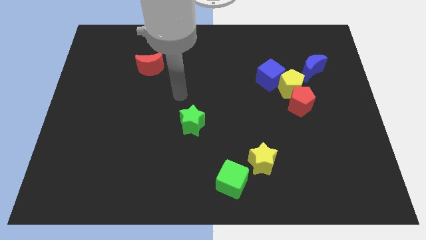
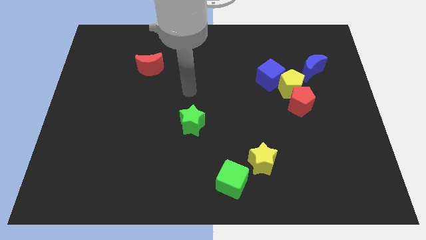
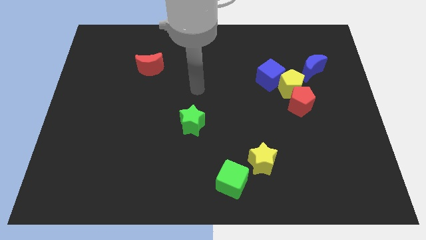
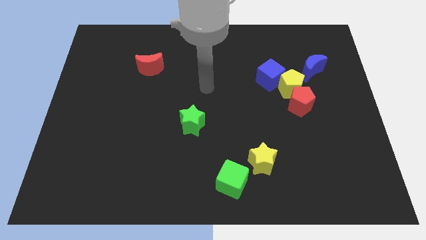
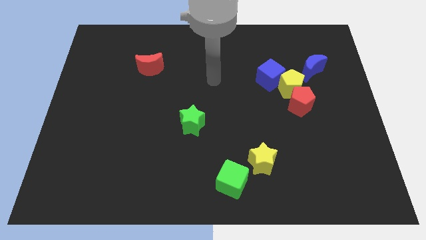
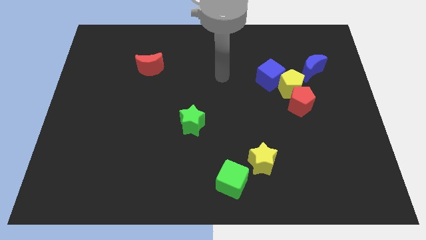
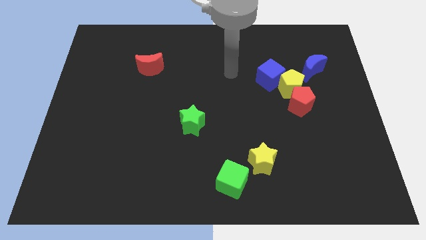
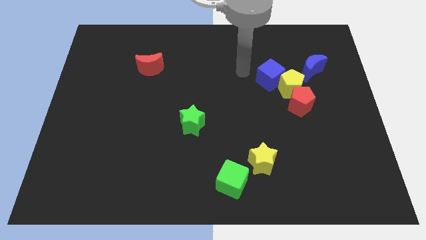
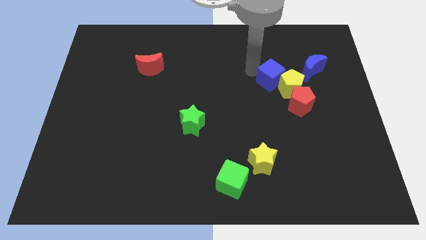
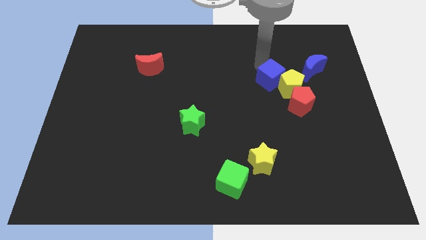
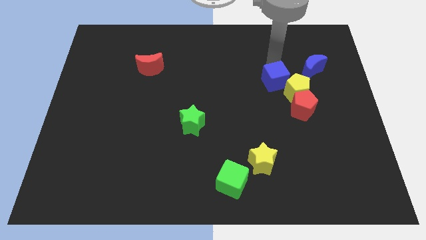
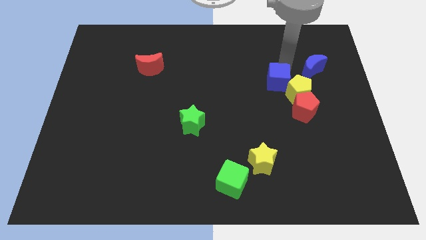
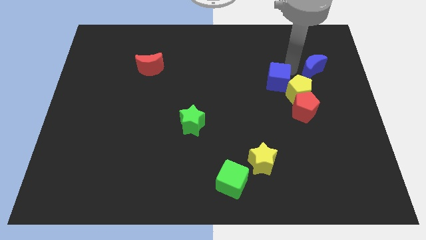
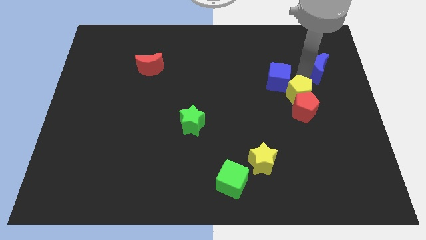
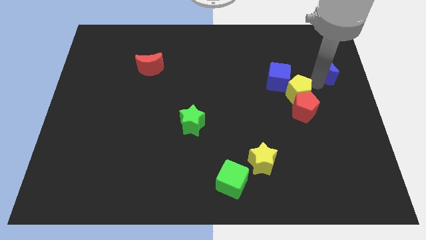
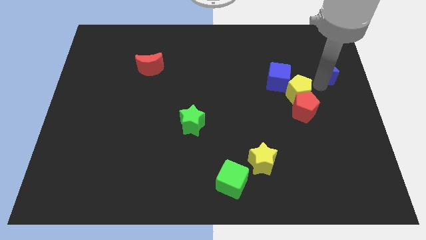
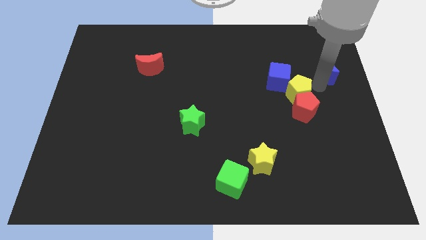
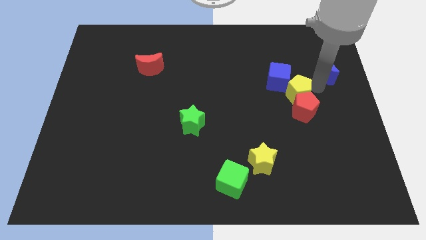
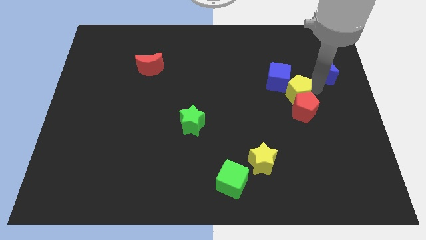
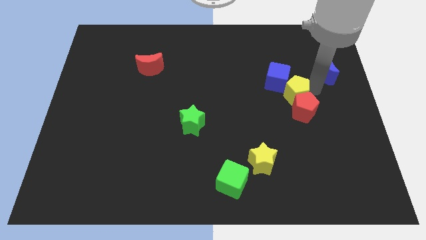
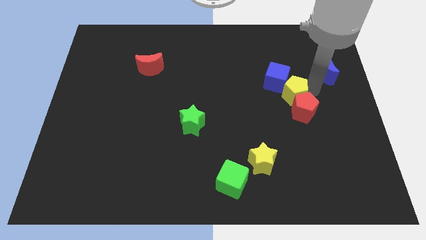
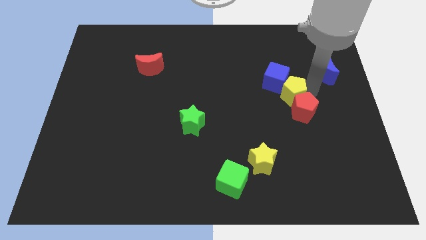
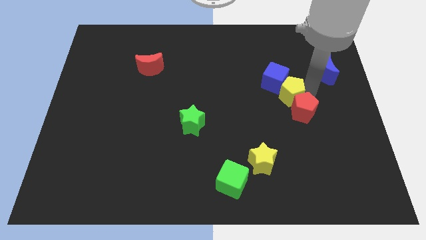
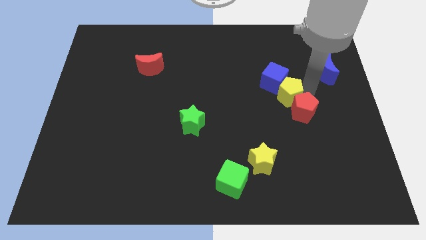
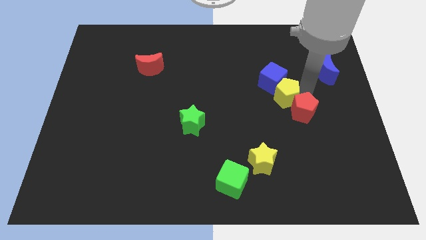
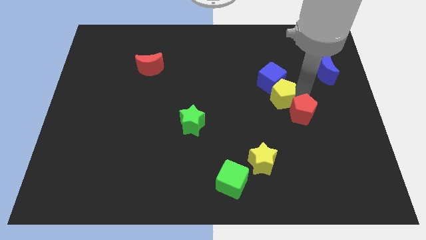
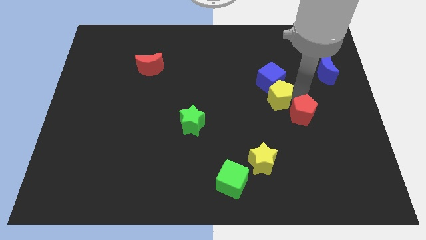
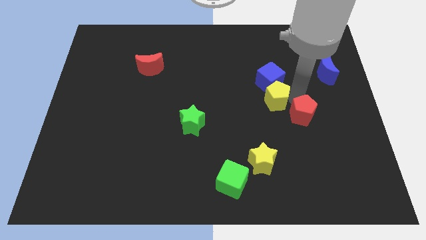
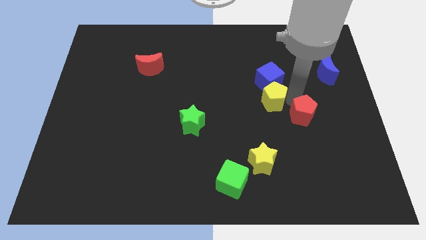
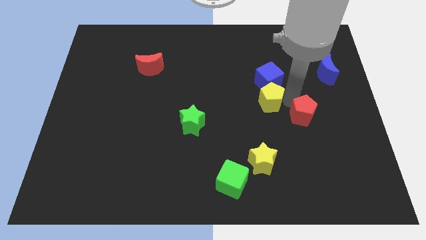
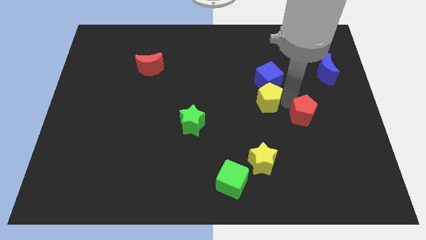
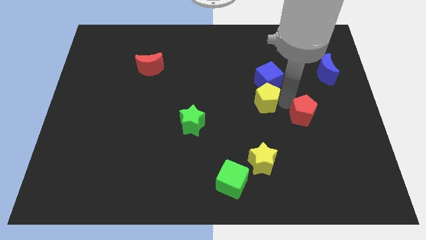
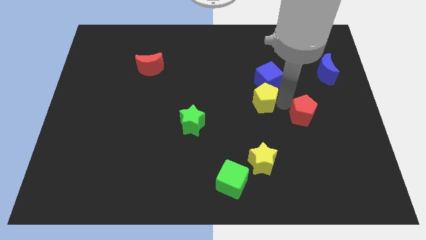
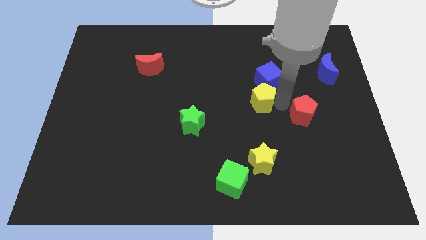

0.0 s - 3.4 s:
separate the yellow pentagon from the group of blocks

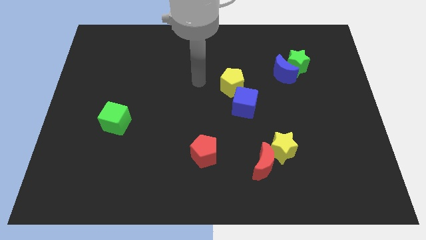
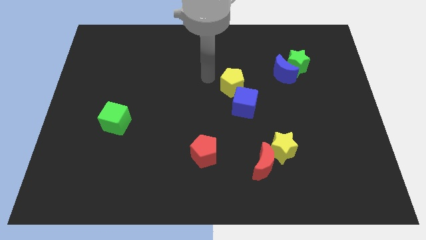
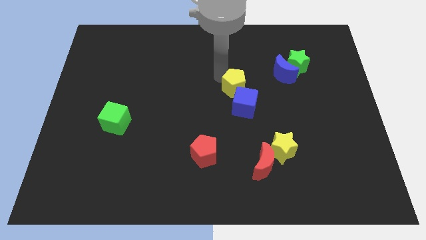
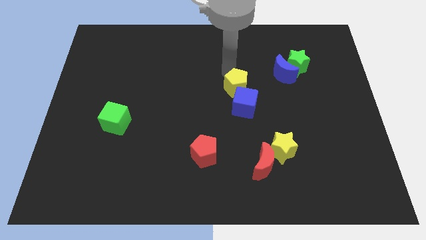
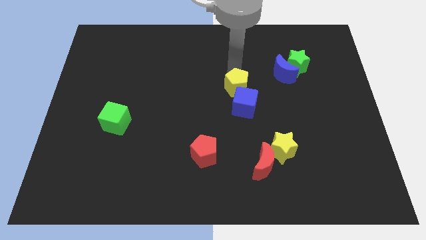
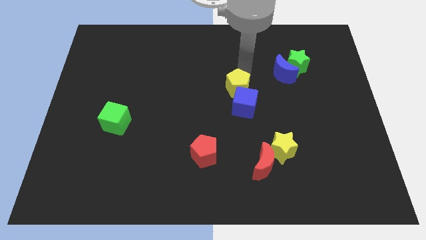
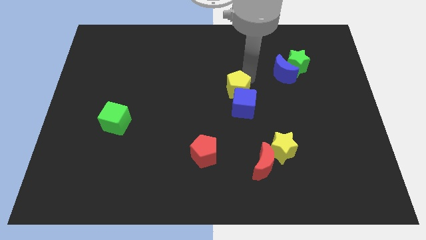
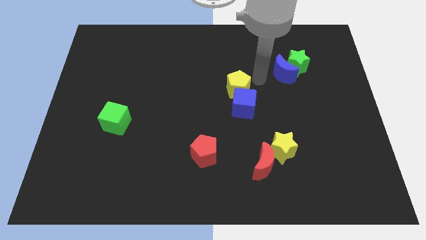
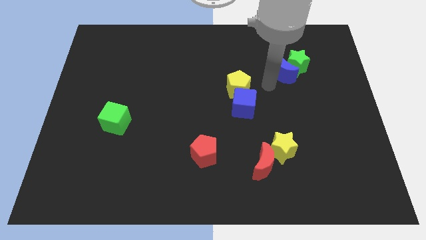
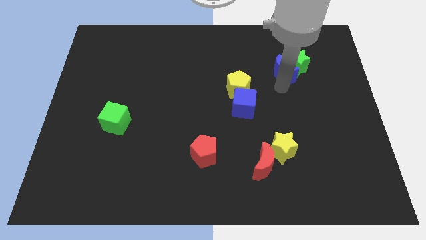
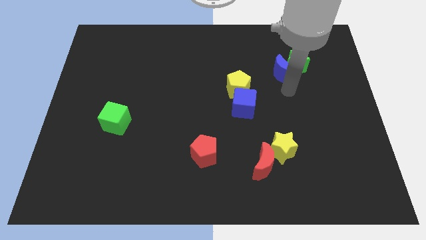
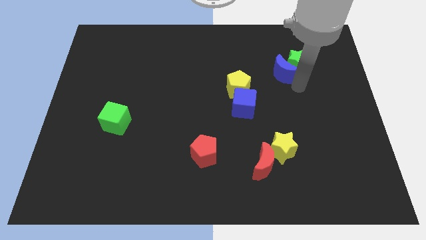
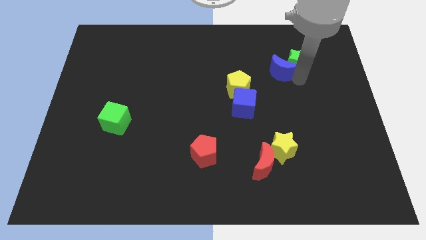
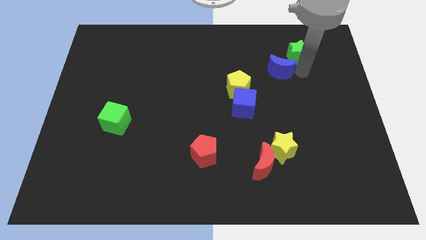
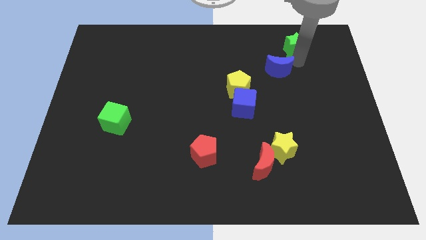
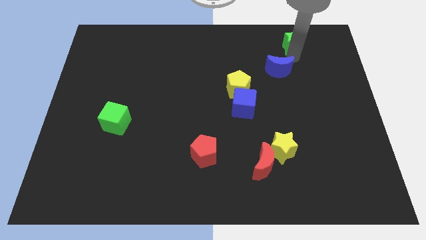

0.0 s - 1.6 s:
move the blue moon away from the green star

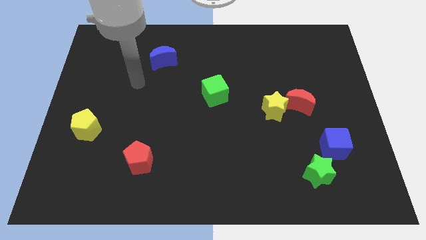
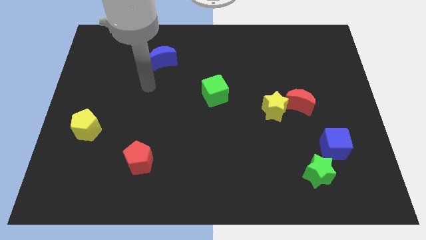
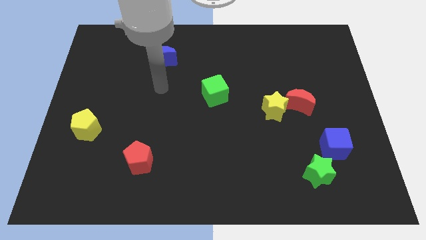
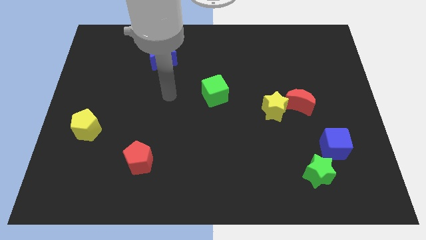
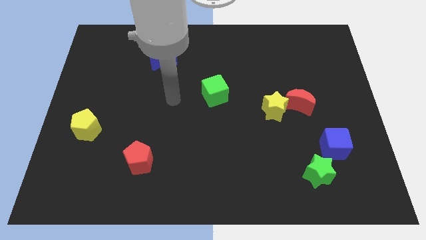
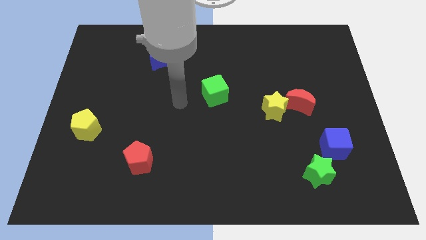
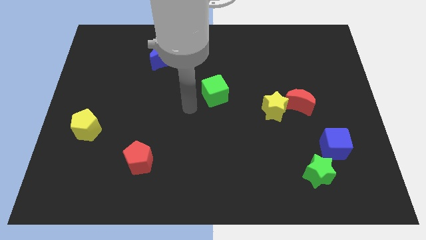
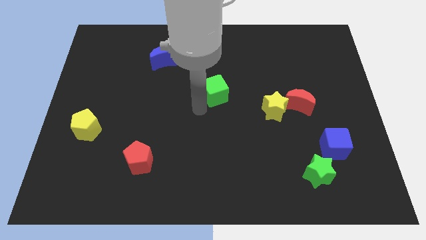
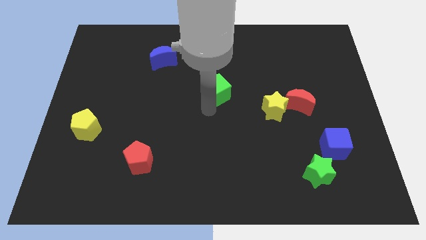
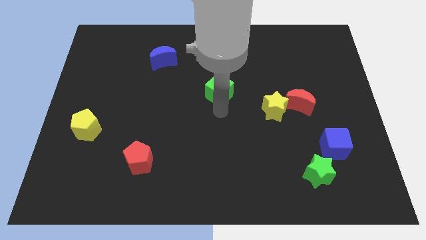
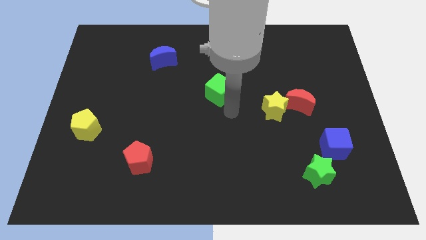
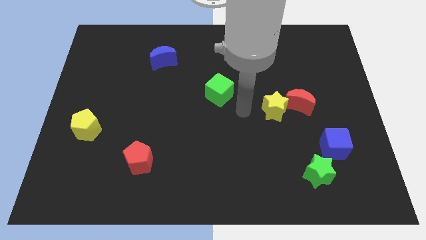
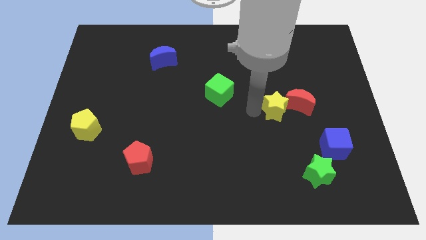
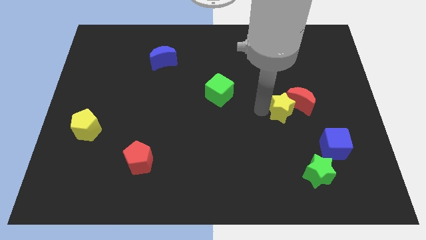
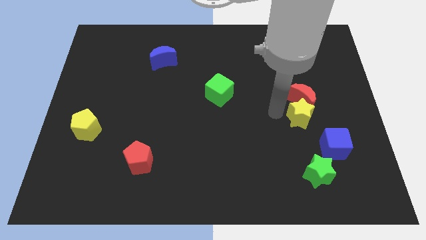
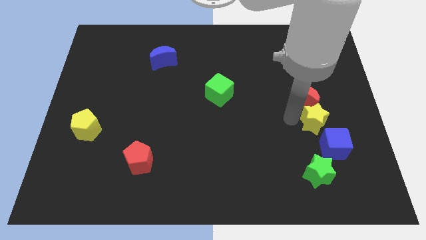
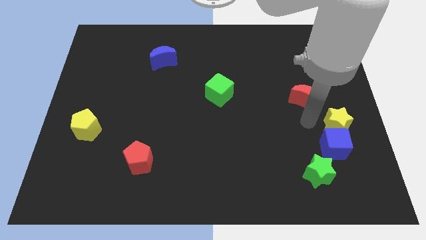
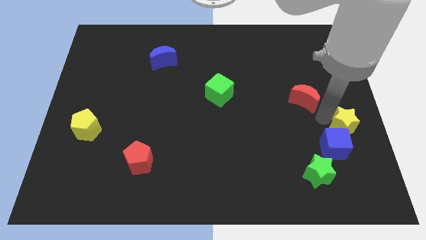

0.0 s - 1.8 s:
move the red moon away from the yellow star

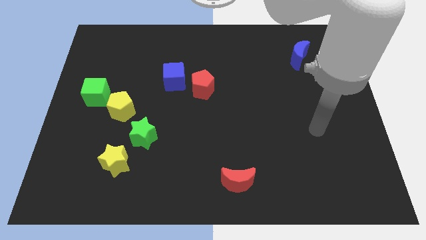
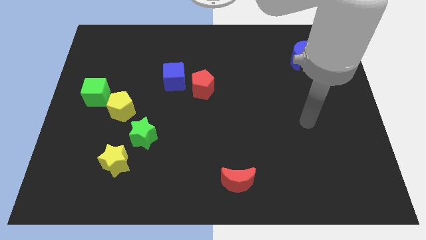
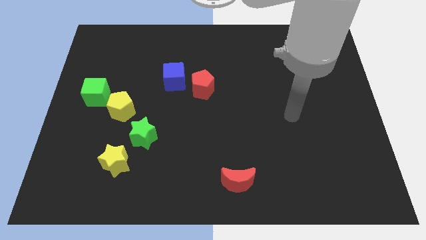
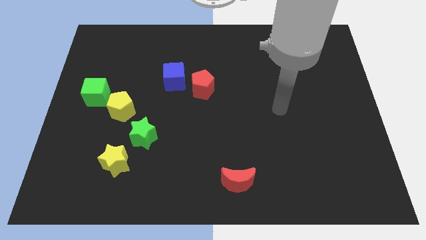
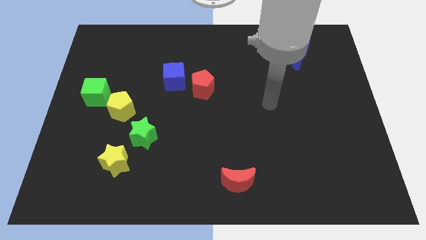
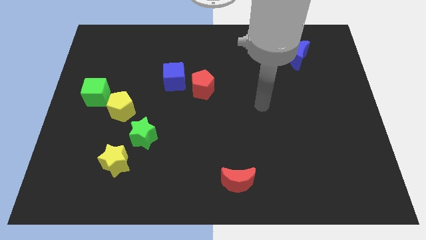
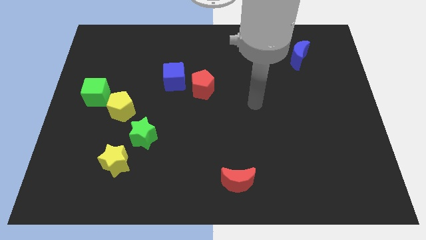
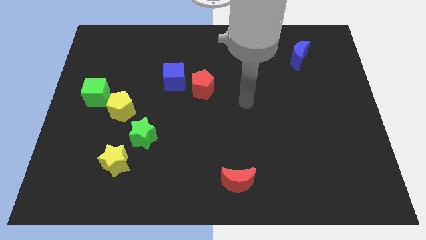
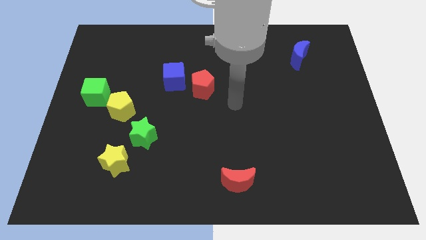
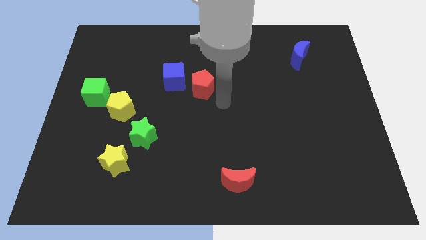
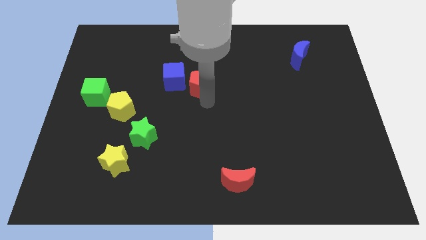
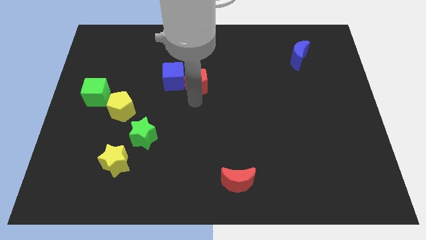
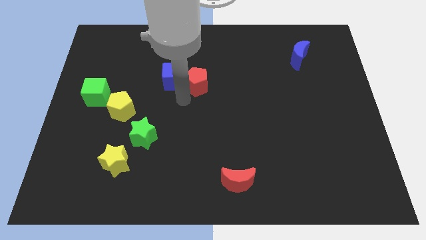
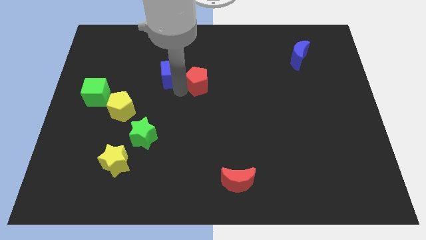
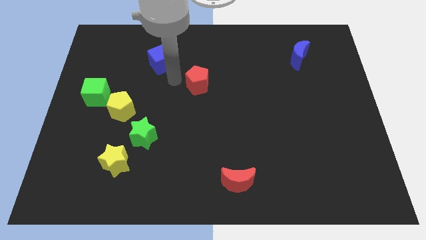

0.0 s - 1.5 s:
move the red pentagon away from the blue cube

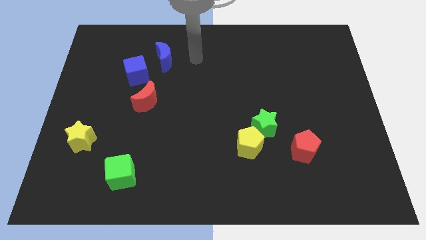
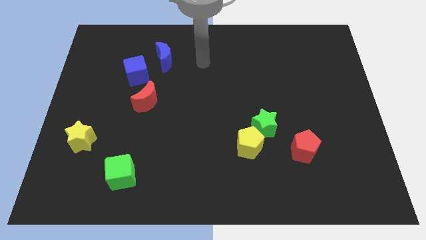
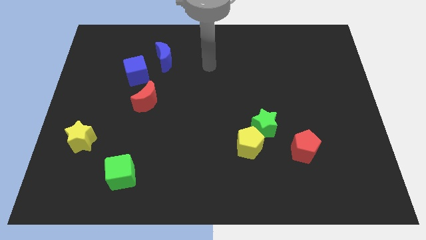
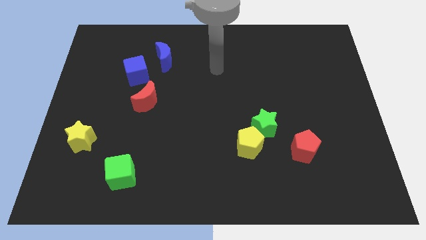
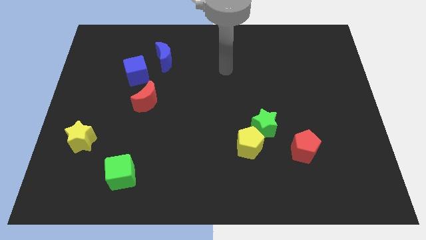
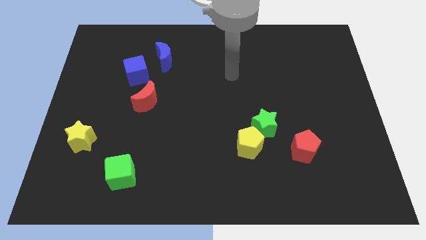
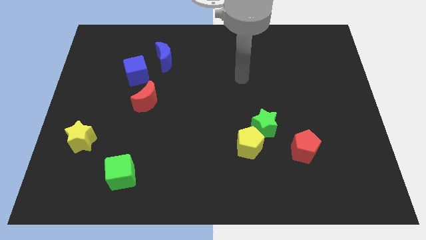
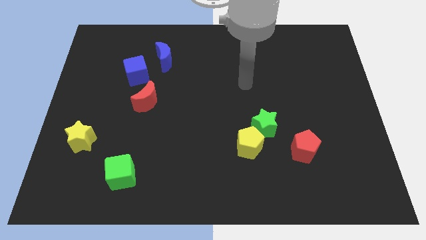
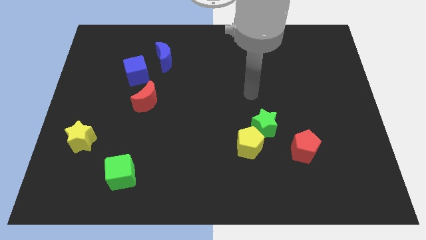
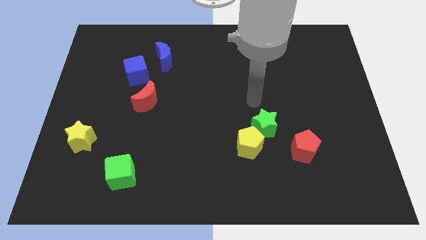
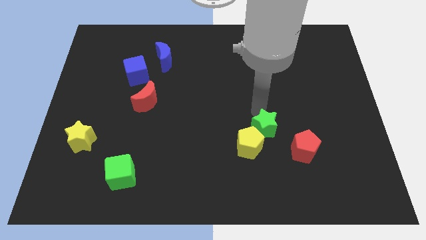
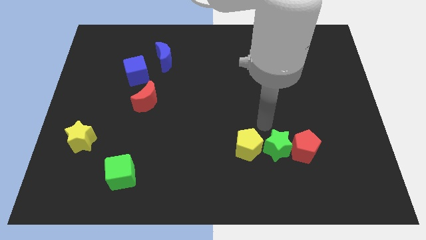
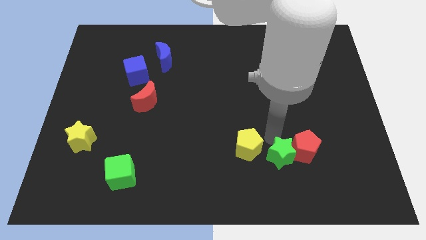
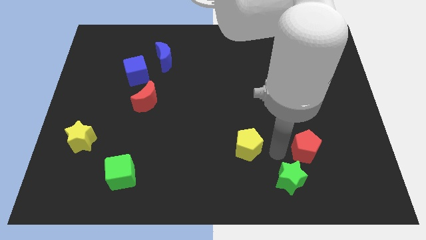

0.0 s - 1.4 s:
move the yellow pentagon away from the green star
